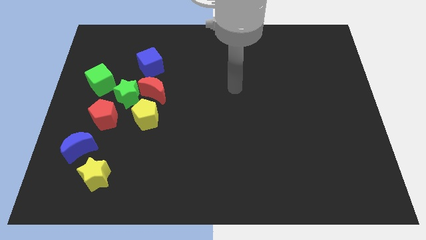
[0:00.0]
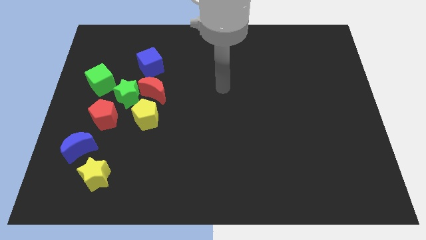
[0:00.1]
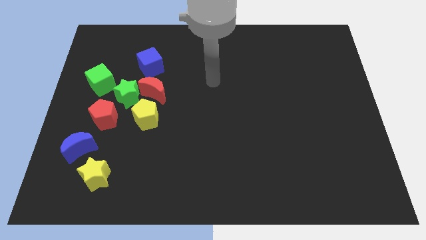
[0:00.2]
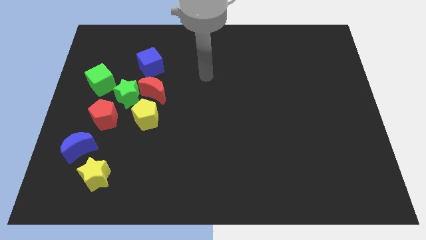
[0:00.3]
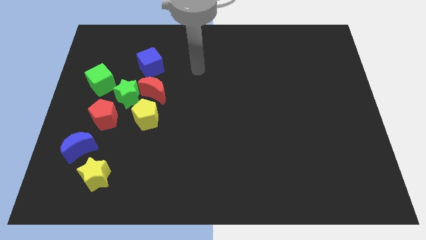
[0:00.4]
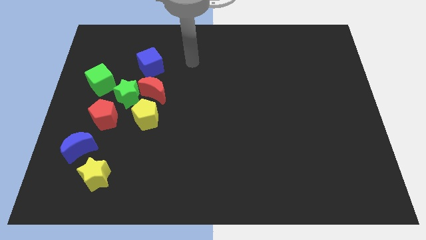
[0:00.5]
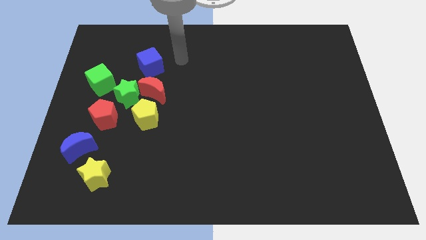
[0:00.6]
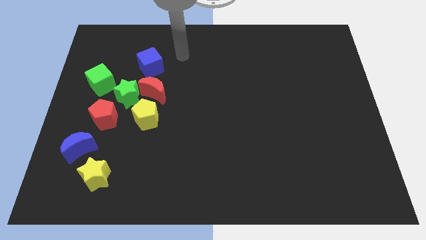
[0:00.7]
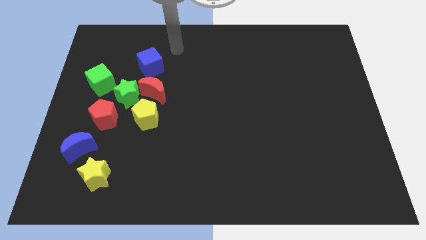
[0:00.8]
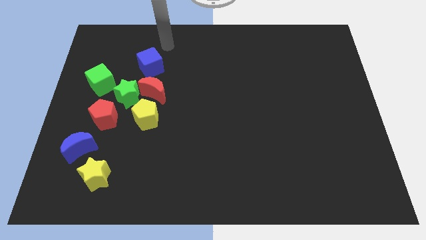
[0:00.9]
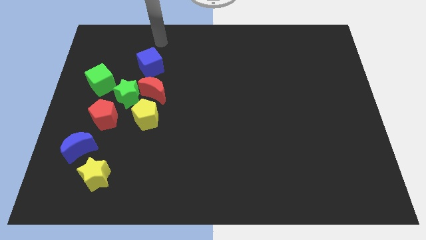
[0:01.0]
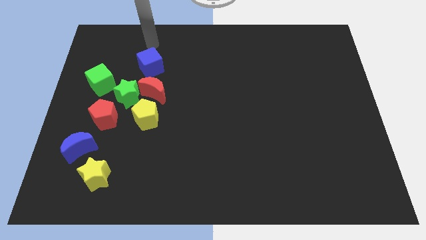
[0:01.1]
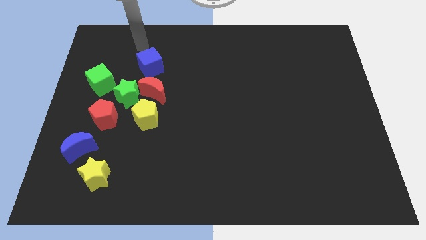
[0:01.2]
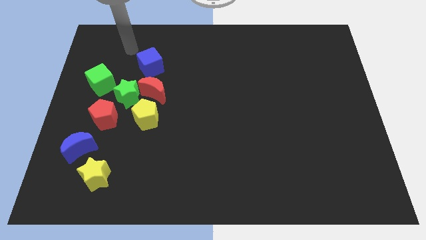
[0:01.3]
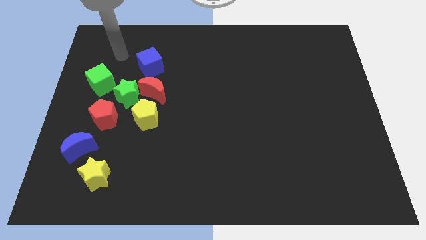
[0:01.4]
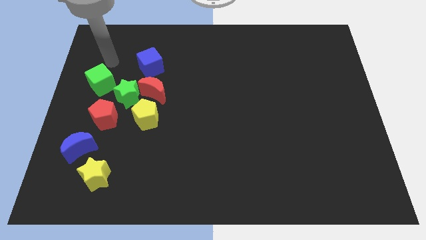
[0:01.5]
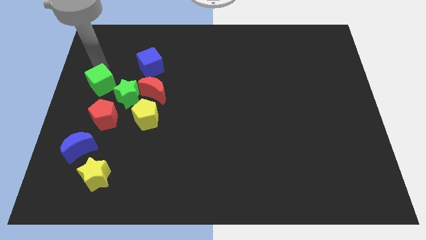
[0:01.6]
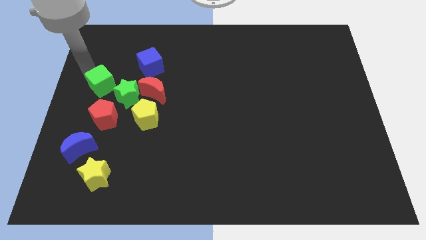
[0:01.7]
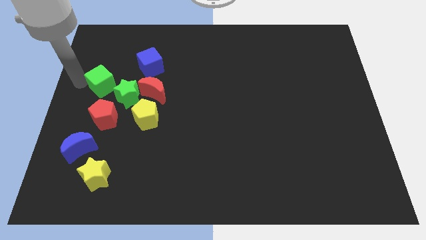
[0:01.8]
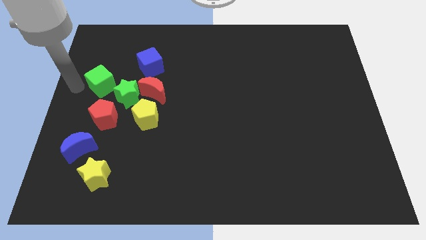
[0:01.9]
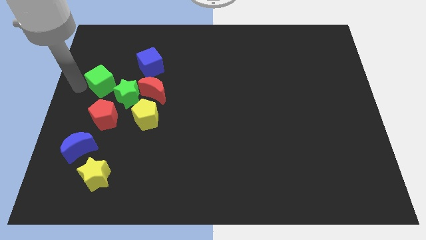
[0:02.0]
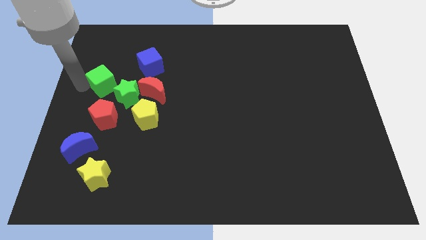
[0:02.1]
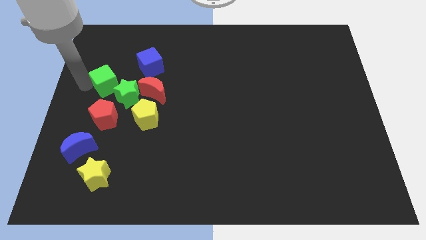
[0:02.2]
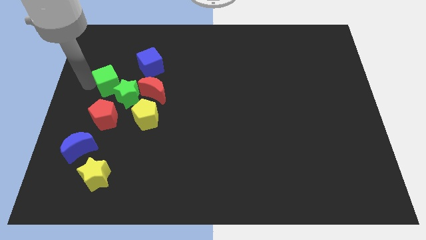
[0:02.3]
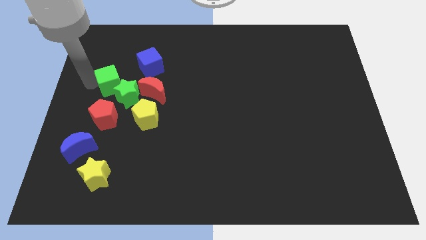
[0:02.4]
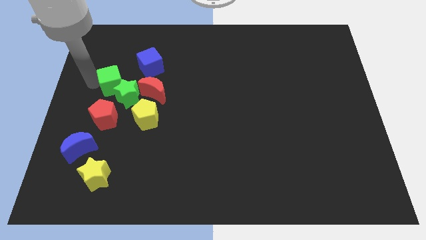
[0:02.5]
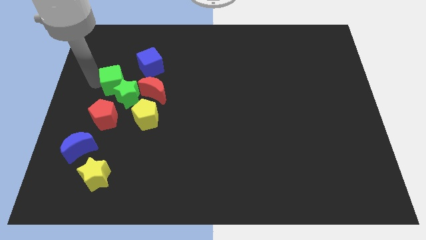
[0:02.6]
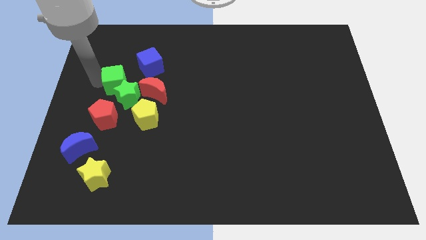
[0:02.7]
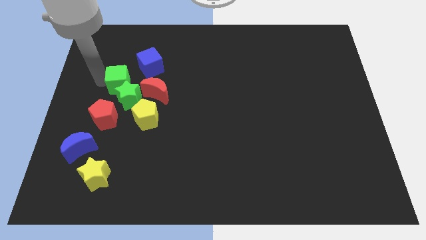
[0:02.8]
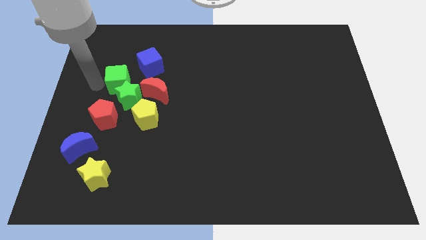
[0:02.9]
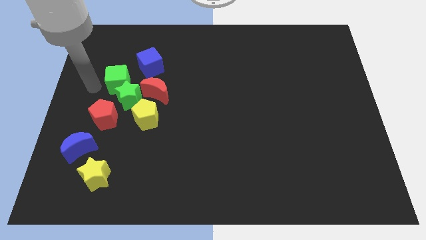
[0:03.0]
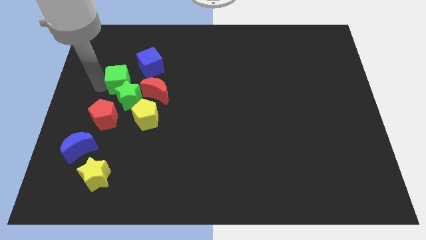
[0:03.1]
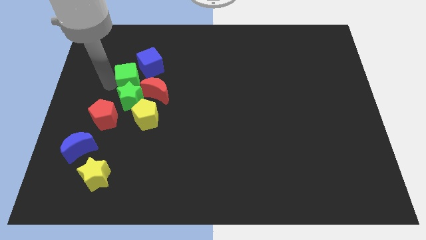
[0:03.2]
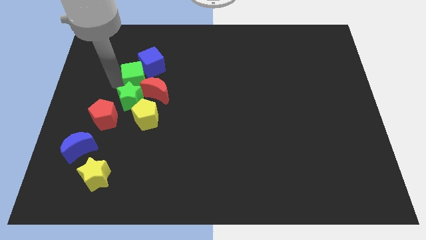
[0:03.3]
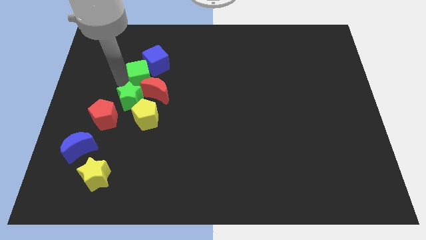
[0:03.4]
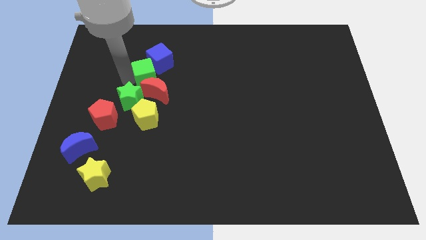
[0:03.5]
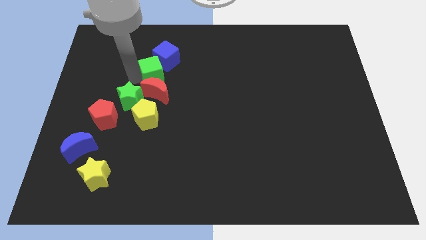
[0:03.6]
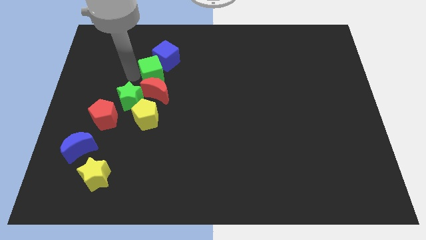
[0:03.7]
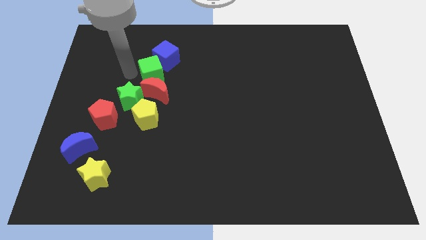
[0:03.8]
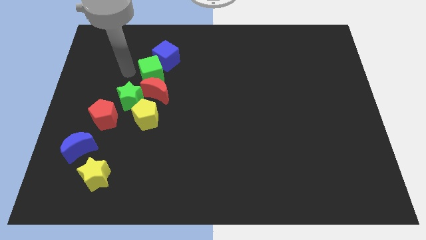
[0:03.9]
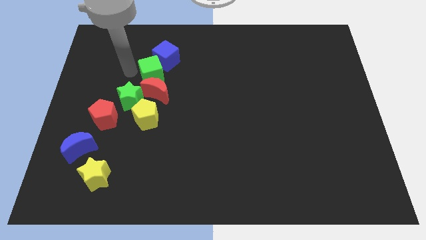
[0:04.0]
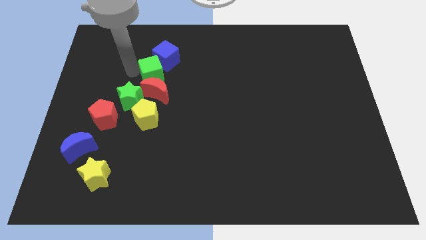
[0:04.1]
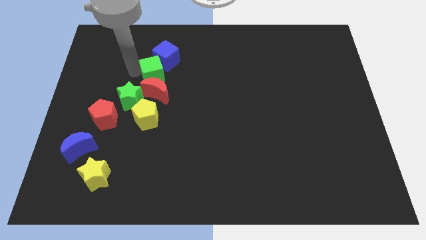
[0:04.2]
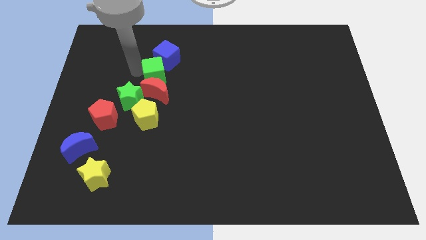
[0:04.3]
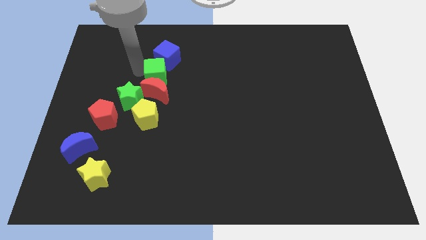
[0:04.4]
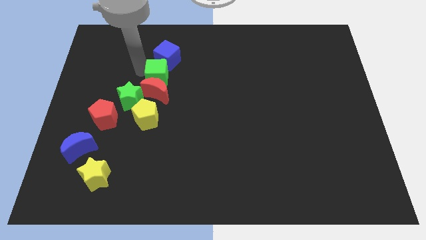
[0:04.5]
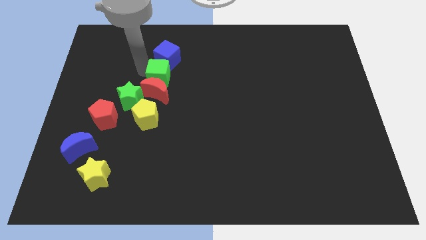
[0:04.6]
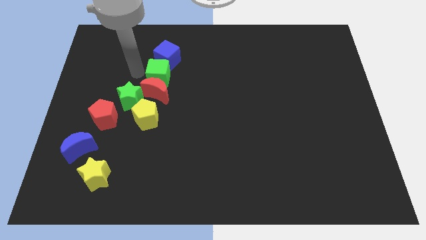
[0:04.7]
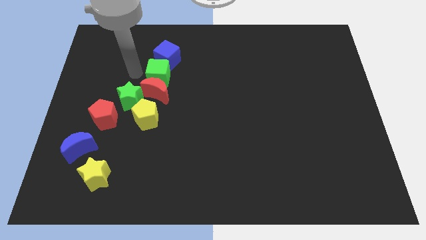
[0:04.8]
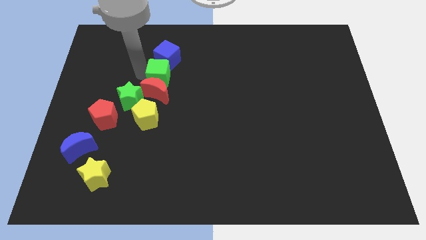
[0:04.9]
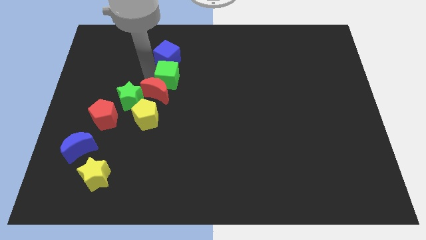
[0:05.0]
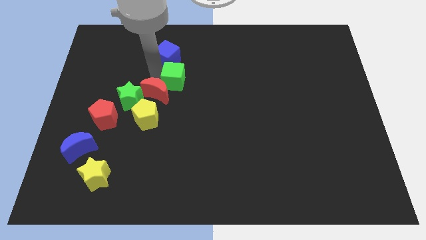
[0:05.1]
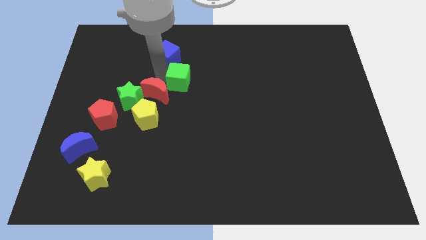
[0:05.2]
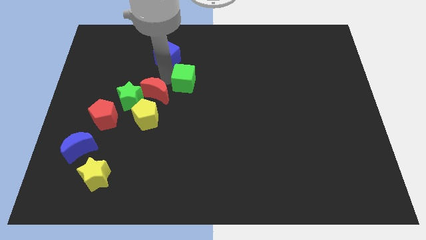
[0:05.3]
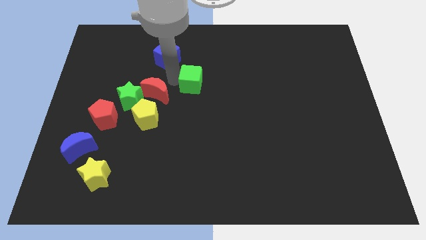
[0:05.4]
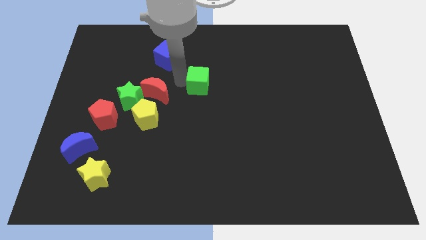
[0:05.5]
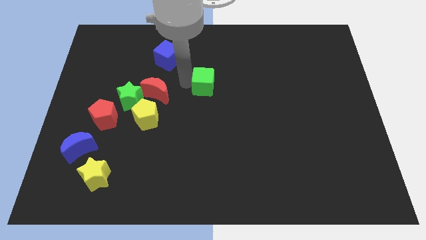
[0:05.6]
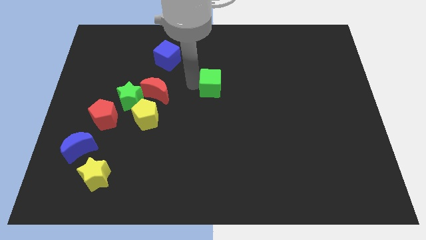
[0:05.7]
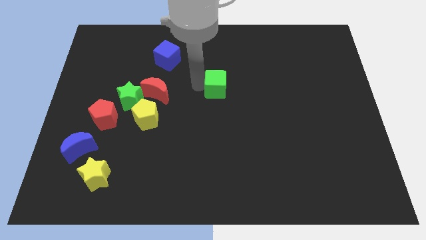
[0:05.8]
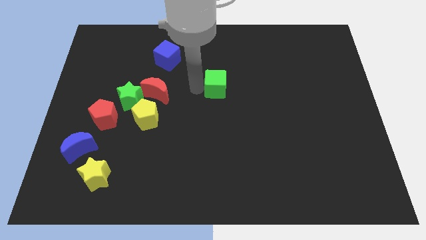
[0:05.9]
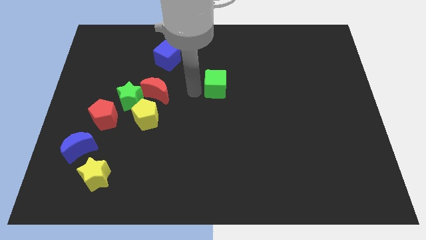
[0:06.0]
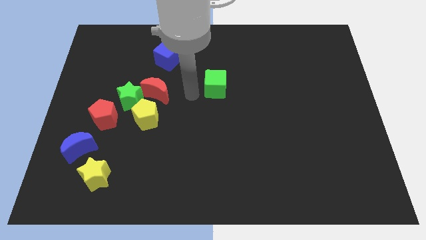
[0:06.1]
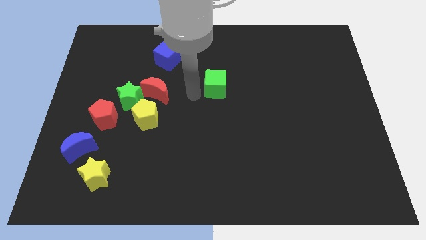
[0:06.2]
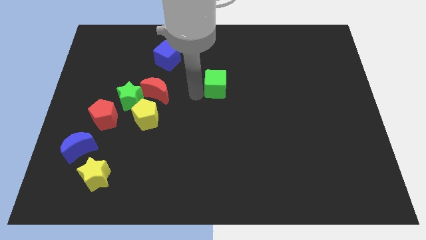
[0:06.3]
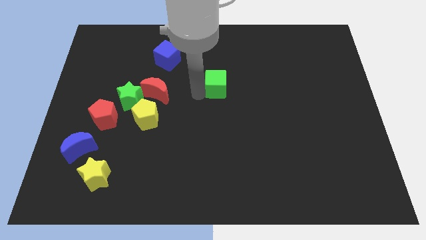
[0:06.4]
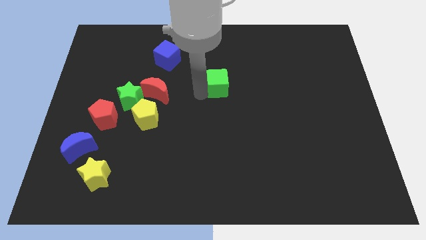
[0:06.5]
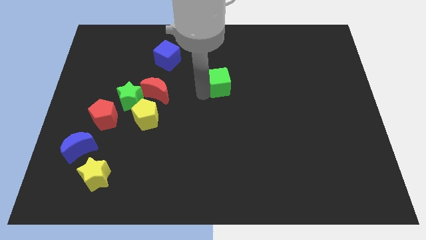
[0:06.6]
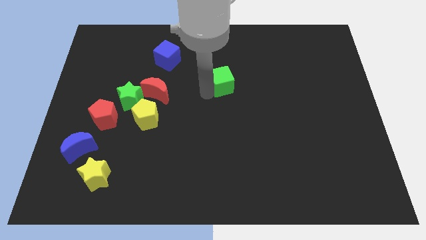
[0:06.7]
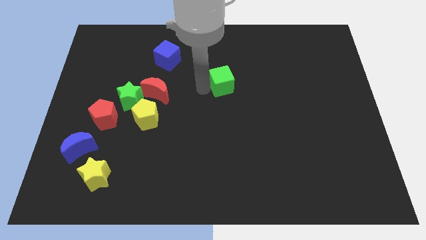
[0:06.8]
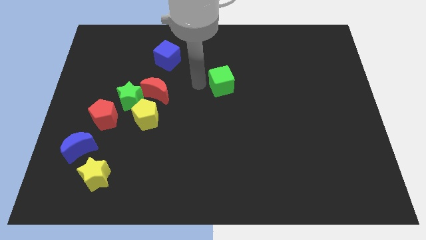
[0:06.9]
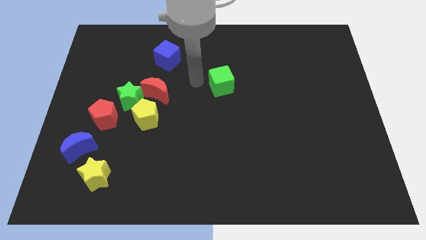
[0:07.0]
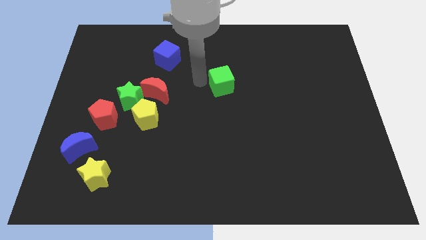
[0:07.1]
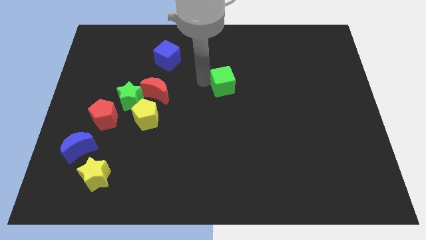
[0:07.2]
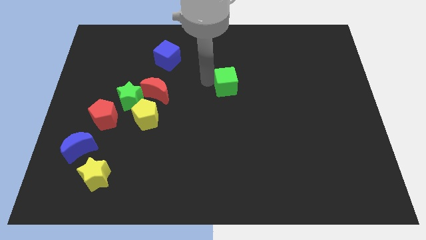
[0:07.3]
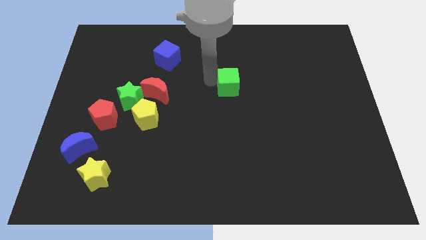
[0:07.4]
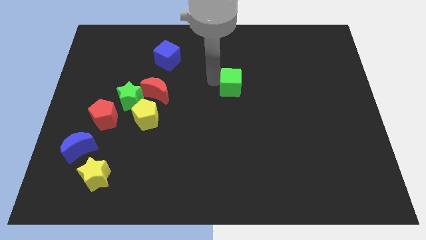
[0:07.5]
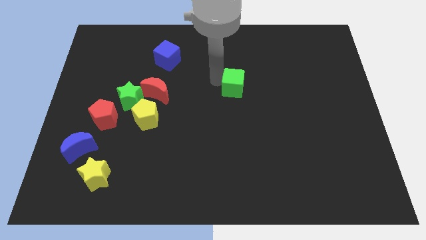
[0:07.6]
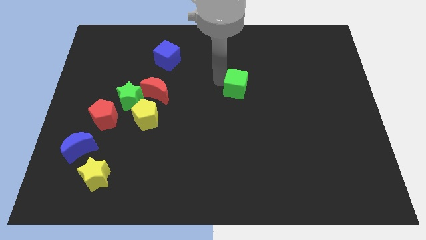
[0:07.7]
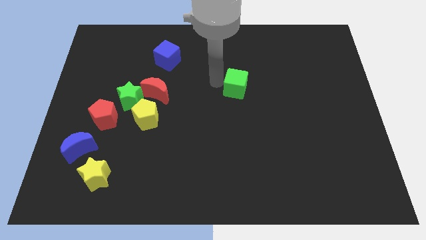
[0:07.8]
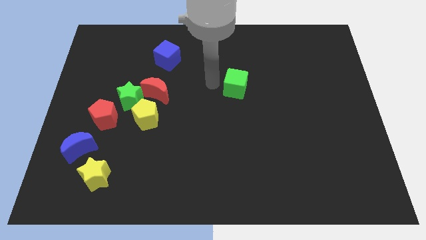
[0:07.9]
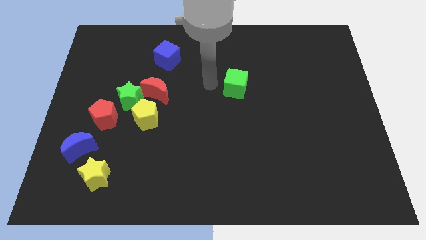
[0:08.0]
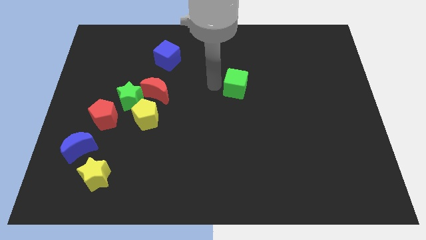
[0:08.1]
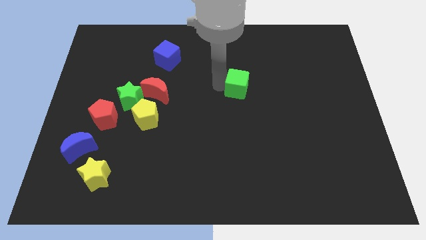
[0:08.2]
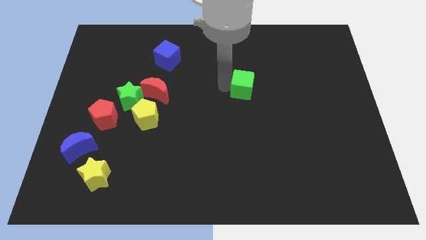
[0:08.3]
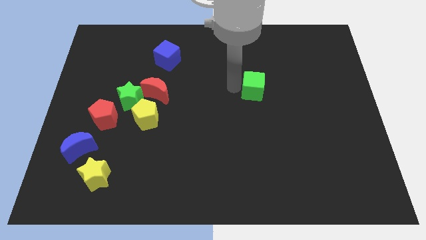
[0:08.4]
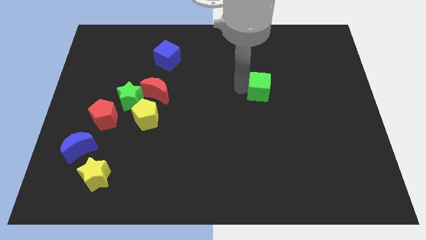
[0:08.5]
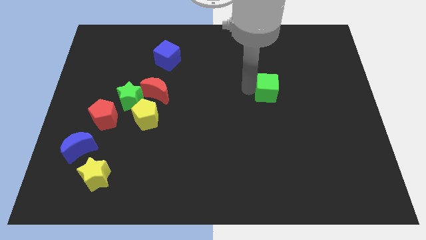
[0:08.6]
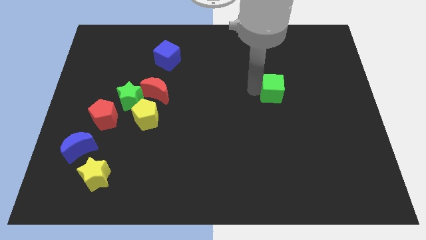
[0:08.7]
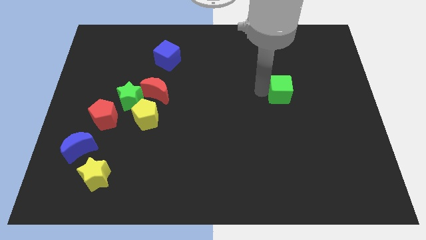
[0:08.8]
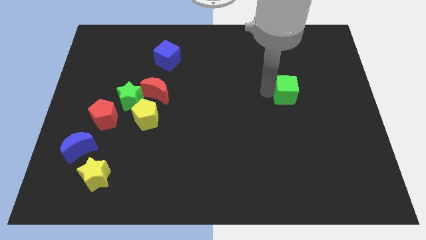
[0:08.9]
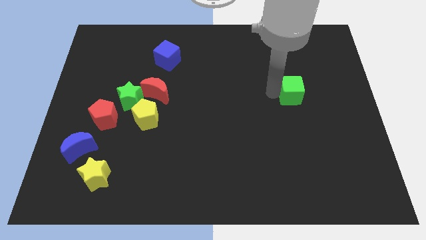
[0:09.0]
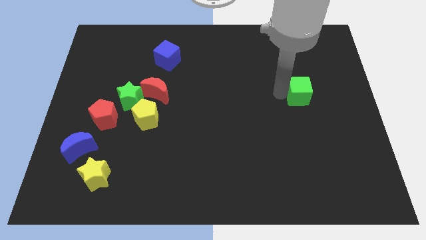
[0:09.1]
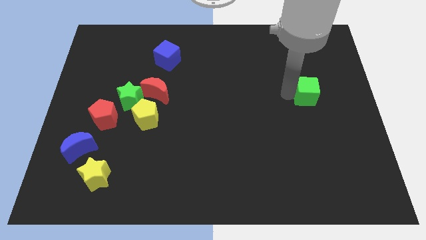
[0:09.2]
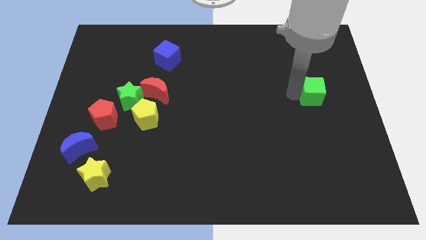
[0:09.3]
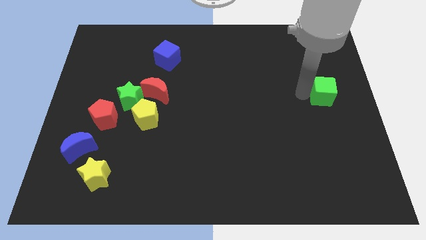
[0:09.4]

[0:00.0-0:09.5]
put the green cube to the right side
